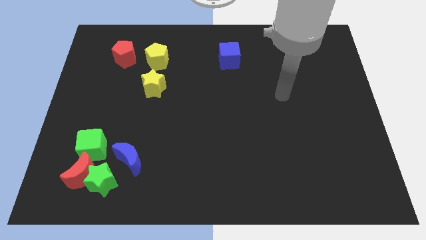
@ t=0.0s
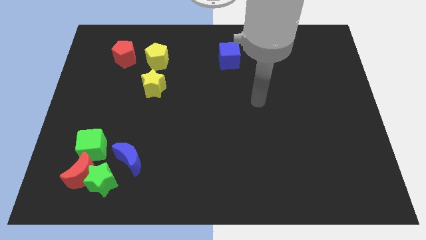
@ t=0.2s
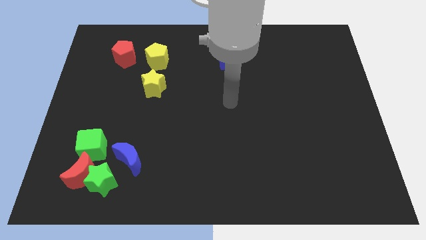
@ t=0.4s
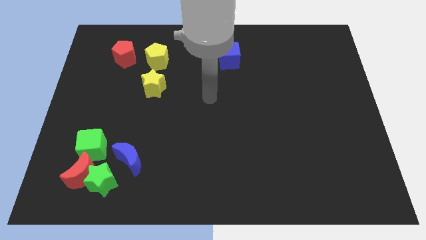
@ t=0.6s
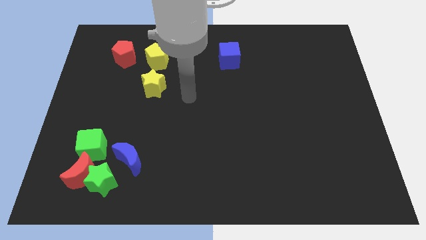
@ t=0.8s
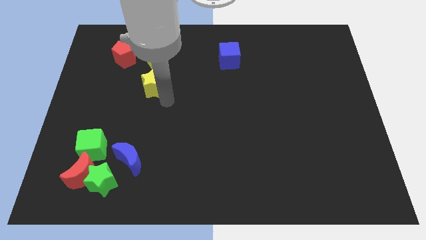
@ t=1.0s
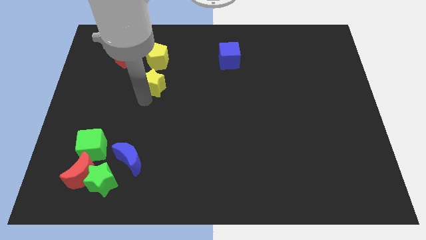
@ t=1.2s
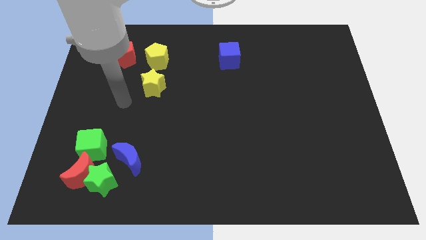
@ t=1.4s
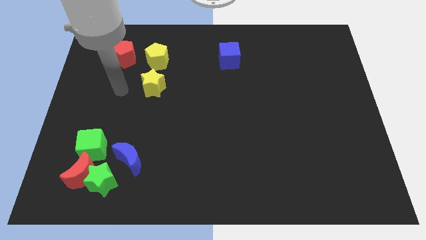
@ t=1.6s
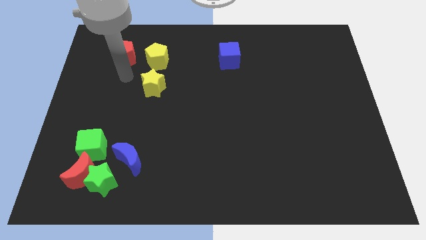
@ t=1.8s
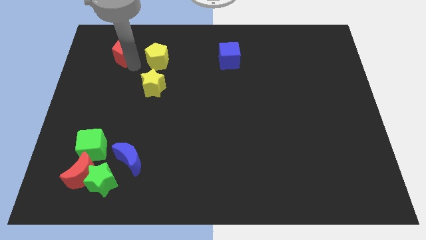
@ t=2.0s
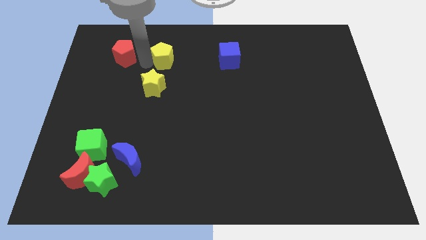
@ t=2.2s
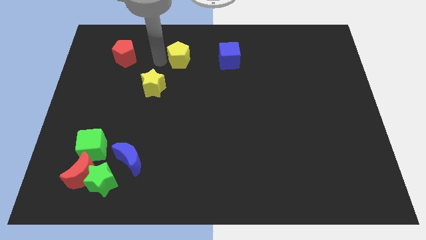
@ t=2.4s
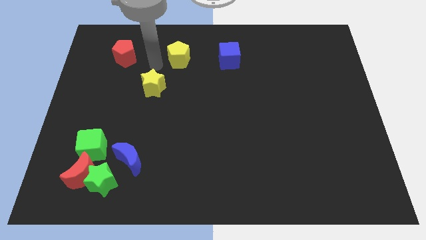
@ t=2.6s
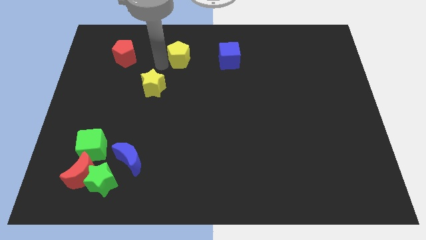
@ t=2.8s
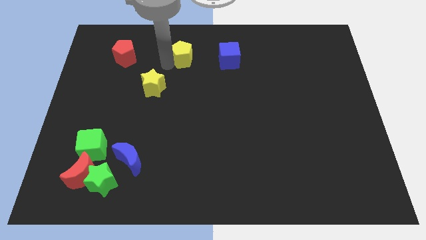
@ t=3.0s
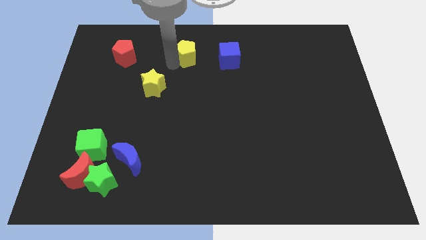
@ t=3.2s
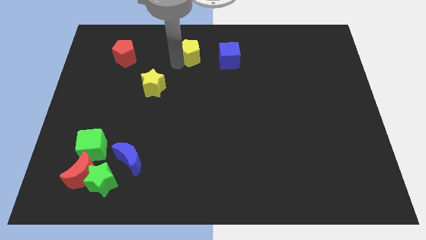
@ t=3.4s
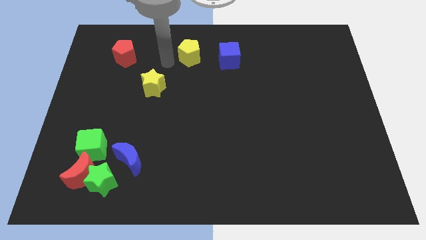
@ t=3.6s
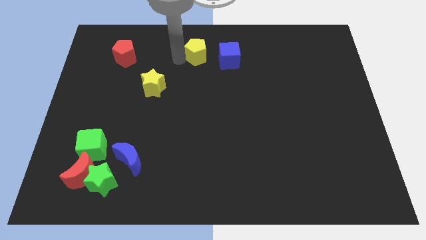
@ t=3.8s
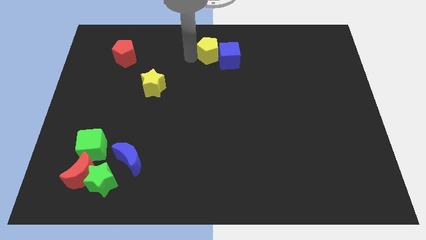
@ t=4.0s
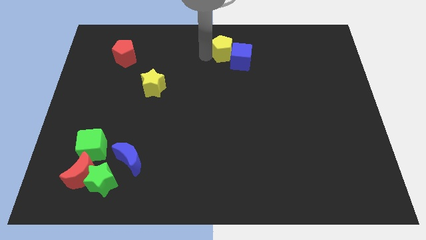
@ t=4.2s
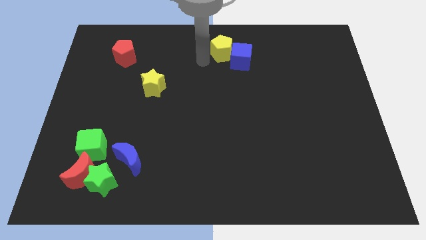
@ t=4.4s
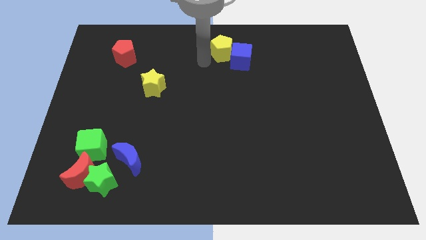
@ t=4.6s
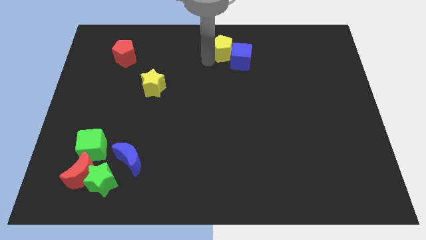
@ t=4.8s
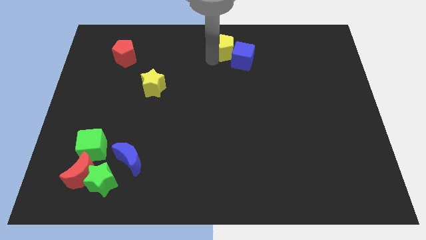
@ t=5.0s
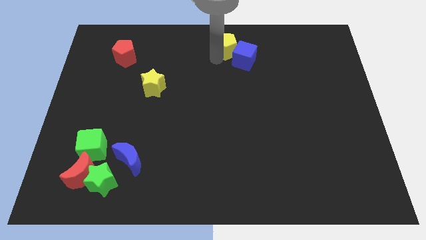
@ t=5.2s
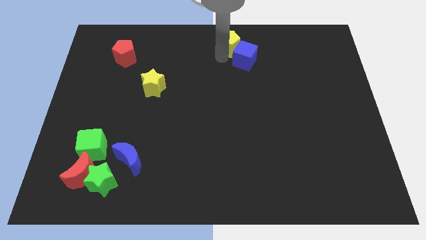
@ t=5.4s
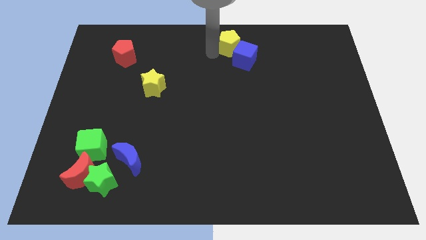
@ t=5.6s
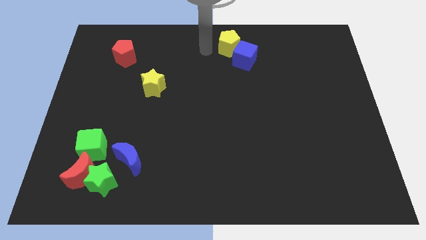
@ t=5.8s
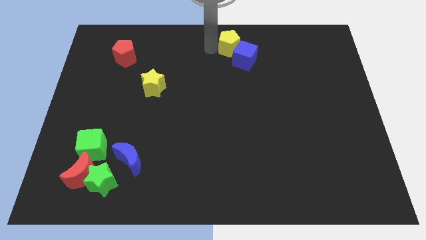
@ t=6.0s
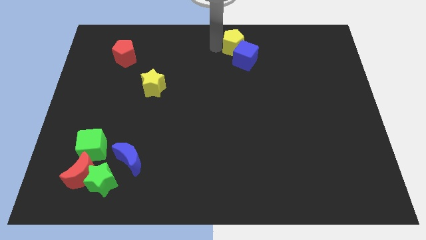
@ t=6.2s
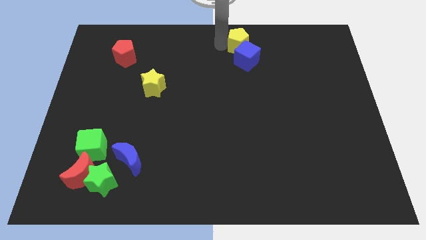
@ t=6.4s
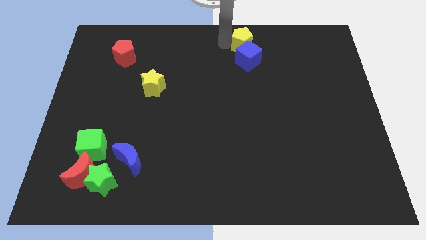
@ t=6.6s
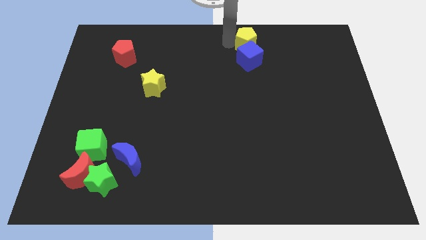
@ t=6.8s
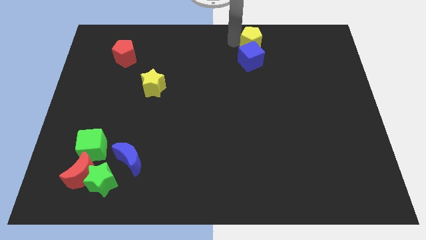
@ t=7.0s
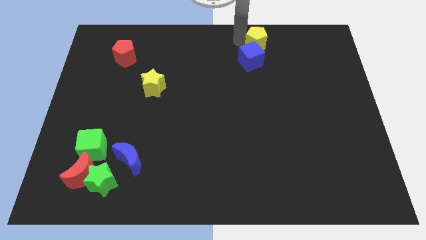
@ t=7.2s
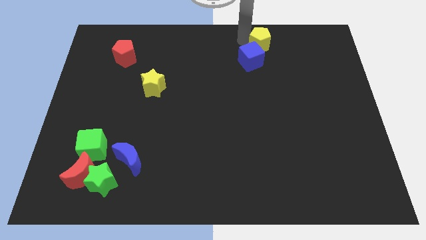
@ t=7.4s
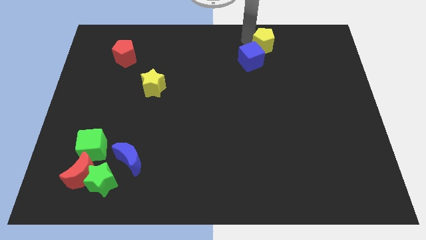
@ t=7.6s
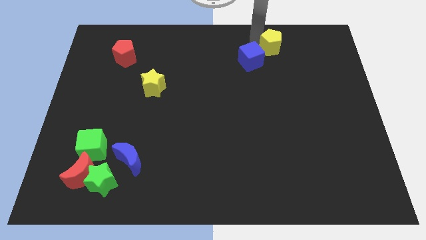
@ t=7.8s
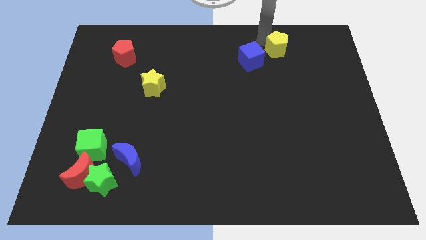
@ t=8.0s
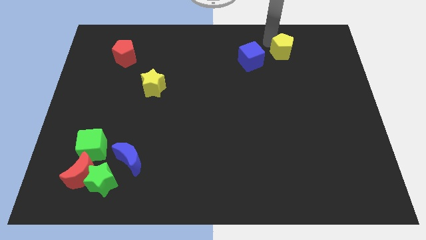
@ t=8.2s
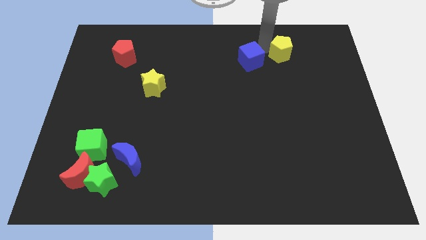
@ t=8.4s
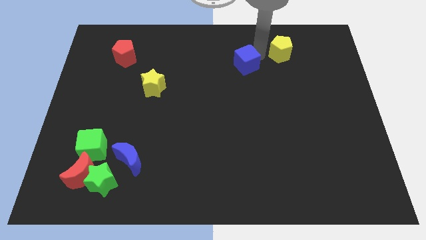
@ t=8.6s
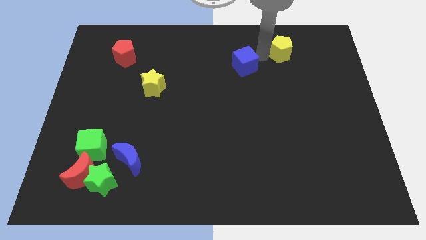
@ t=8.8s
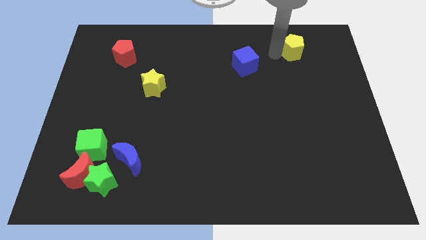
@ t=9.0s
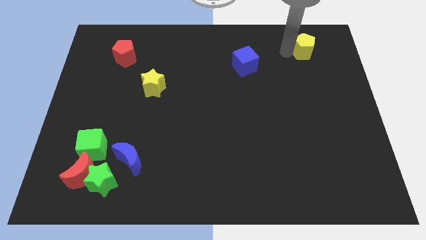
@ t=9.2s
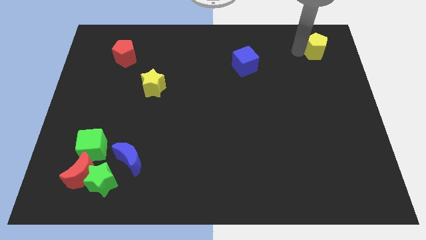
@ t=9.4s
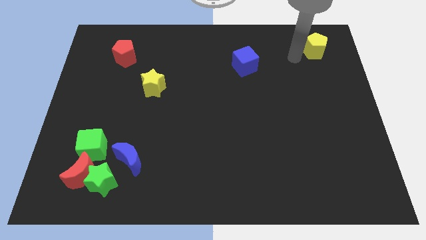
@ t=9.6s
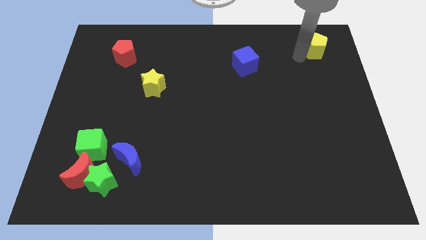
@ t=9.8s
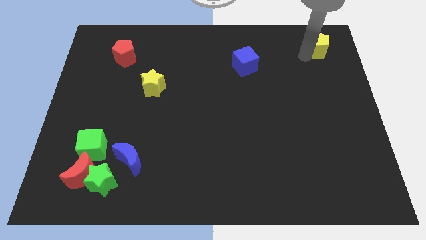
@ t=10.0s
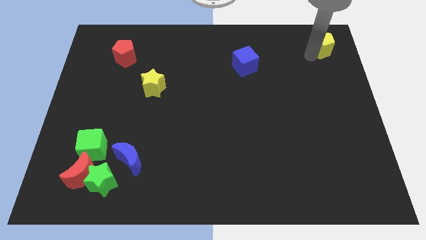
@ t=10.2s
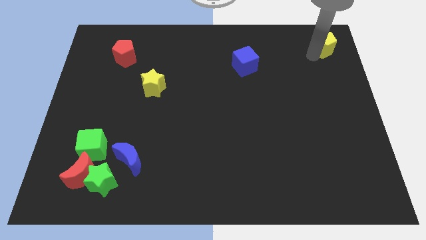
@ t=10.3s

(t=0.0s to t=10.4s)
slide the yellow pentagon to the top right of the board

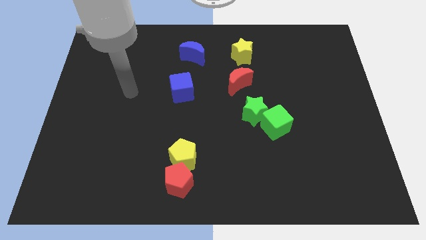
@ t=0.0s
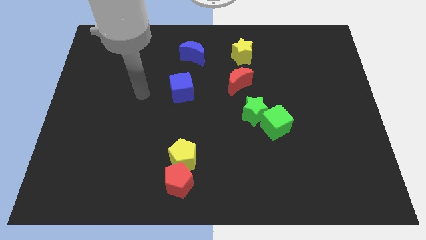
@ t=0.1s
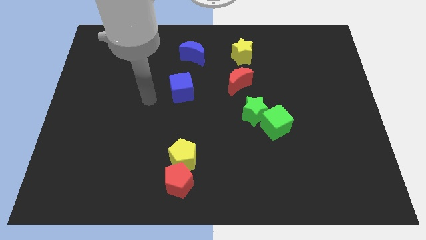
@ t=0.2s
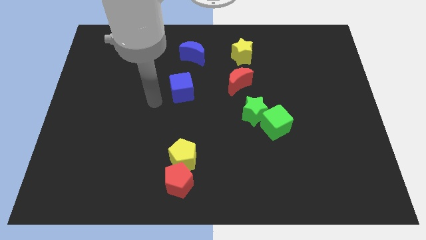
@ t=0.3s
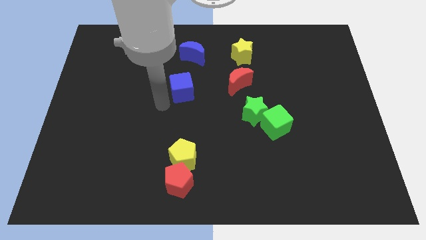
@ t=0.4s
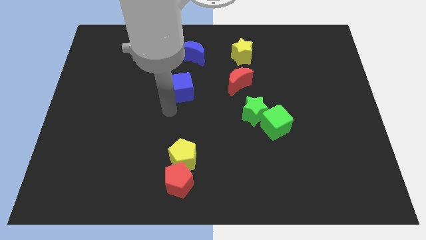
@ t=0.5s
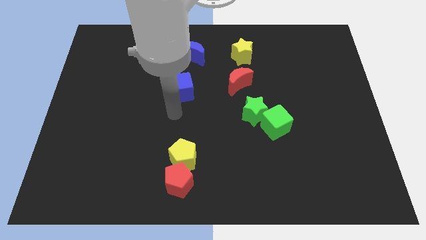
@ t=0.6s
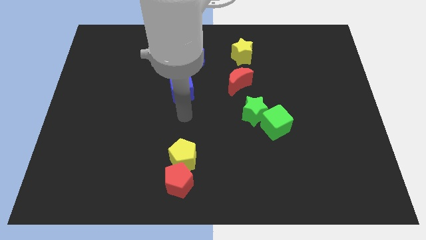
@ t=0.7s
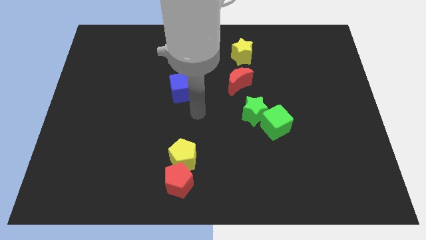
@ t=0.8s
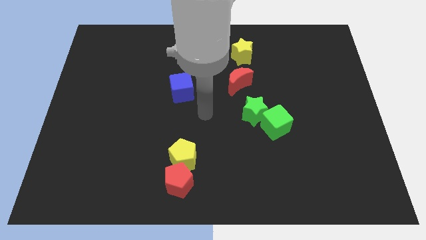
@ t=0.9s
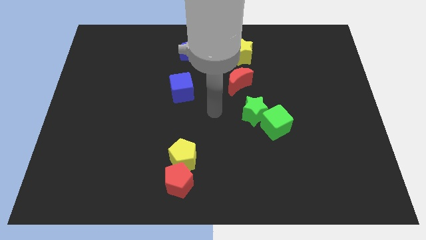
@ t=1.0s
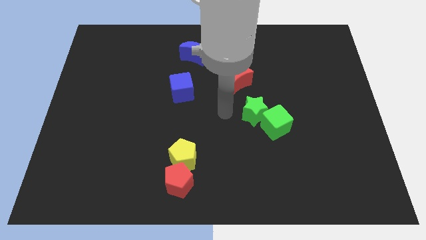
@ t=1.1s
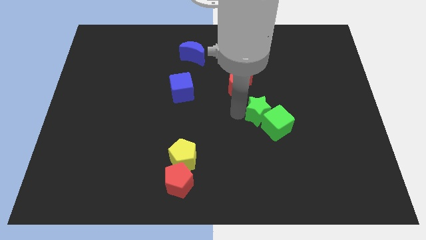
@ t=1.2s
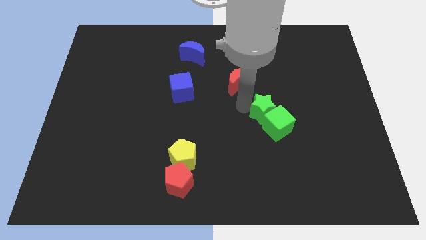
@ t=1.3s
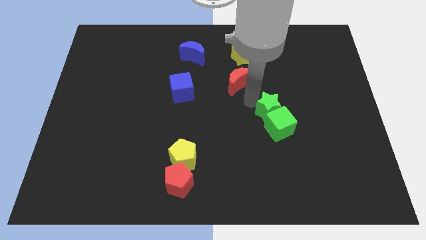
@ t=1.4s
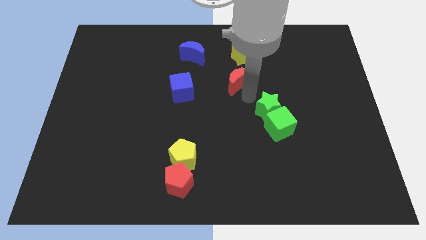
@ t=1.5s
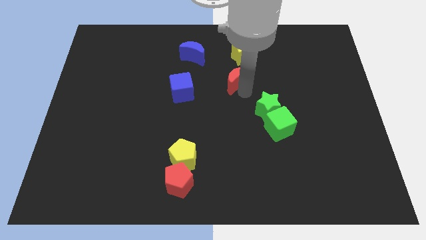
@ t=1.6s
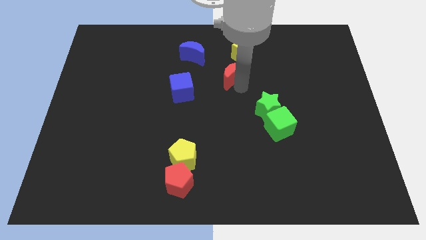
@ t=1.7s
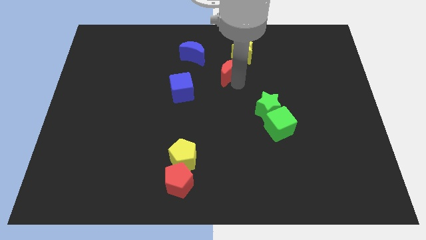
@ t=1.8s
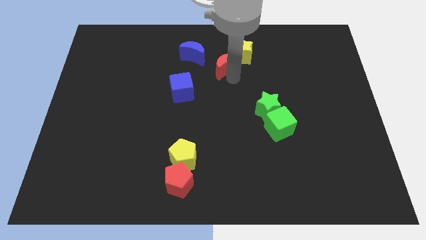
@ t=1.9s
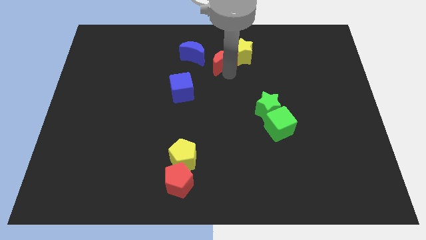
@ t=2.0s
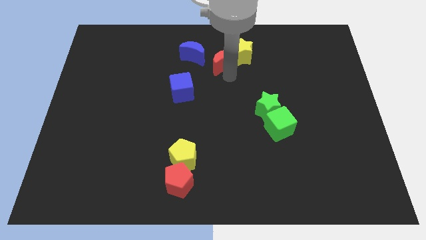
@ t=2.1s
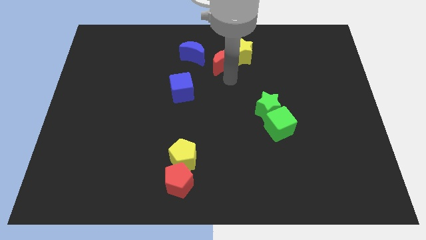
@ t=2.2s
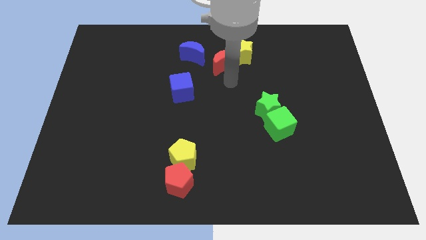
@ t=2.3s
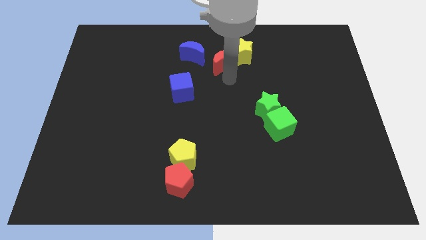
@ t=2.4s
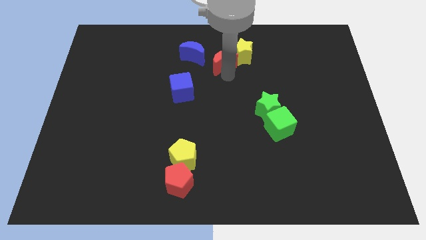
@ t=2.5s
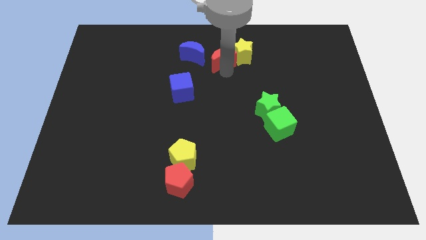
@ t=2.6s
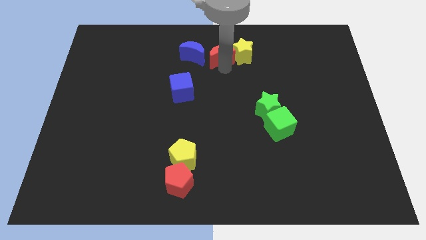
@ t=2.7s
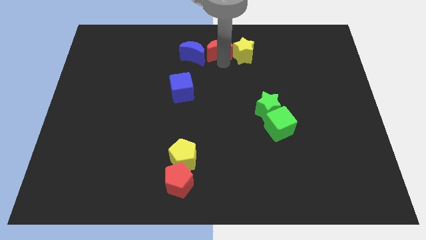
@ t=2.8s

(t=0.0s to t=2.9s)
slide the red moon to the top
